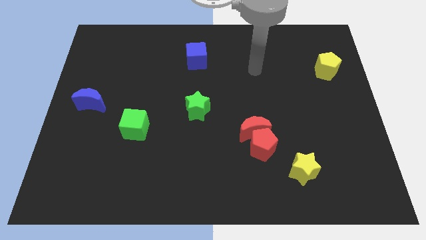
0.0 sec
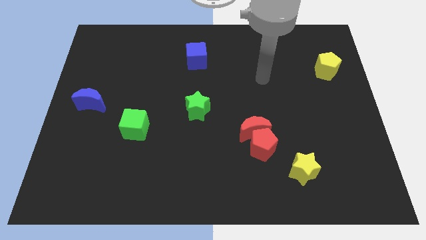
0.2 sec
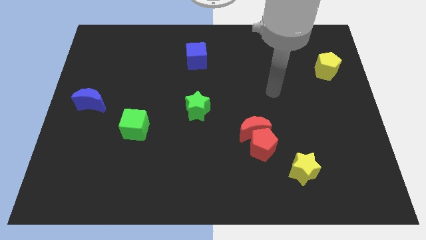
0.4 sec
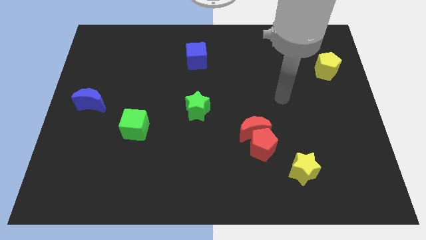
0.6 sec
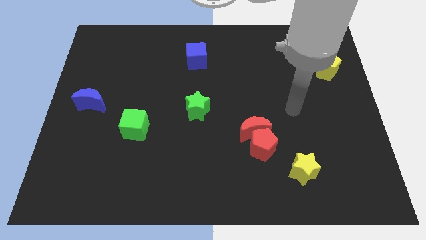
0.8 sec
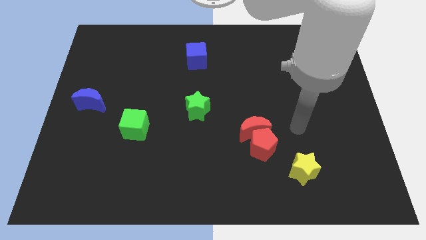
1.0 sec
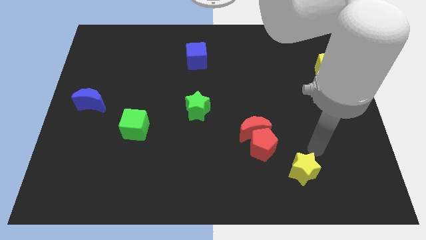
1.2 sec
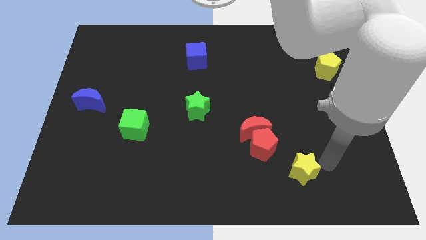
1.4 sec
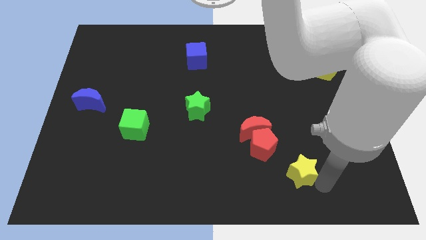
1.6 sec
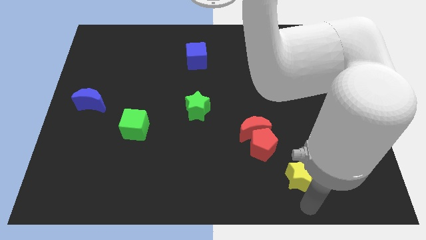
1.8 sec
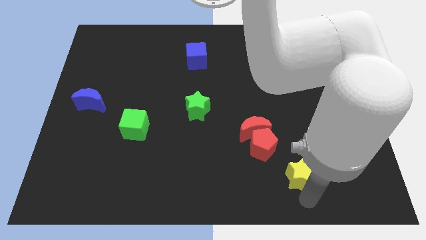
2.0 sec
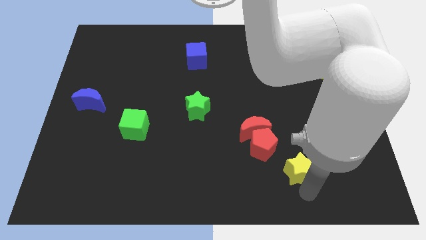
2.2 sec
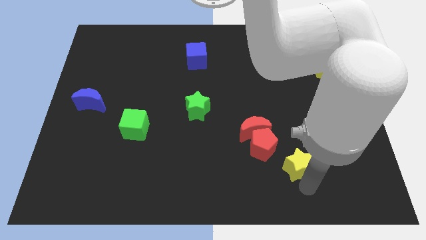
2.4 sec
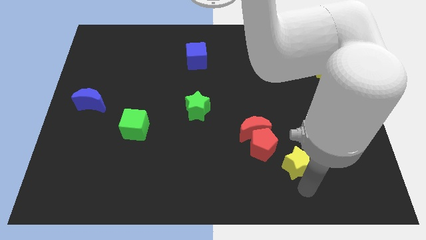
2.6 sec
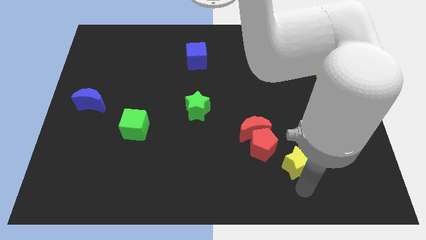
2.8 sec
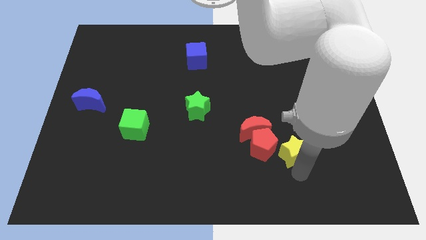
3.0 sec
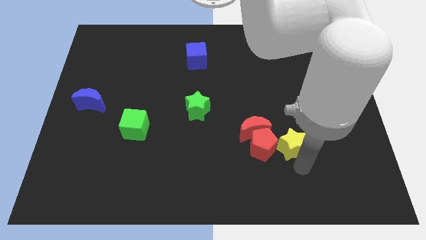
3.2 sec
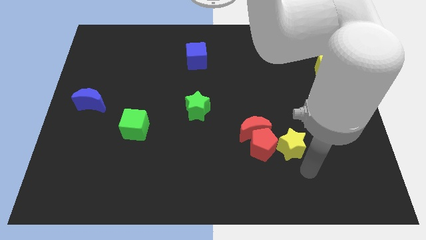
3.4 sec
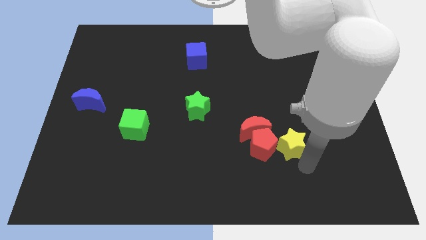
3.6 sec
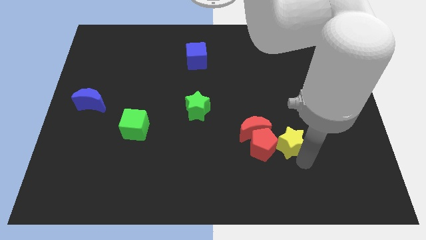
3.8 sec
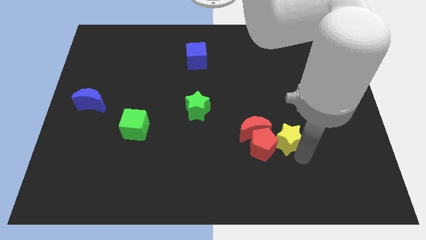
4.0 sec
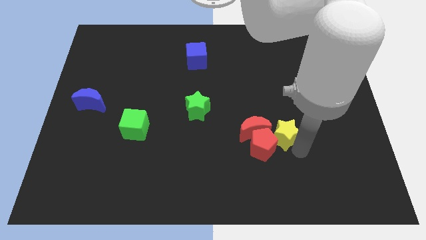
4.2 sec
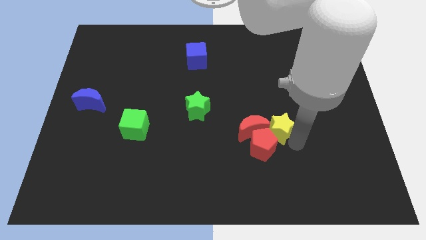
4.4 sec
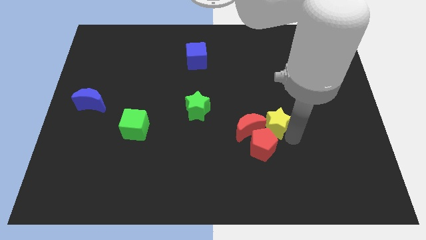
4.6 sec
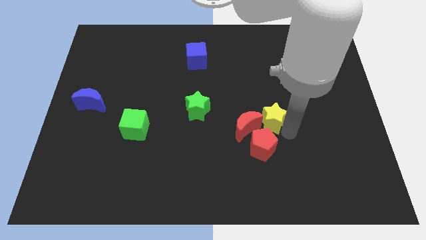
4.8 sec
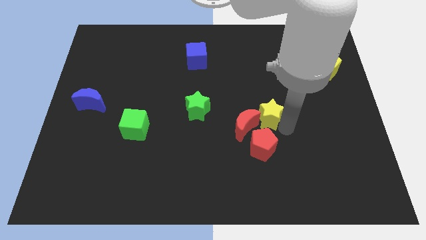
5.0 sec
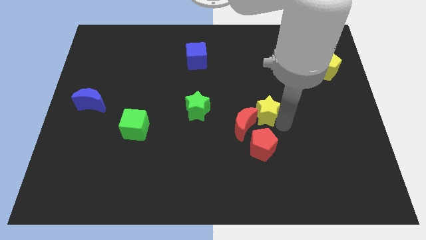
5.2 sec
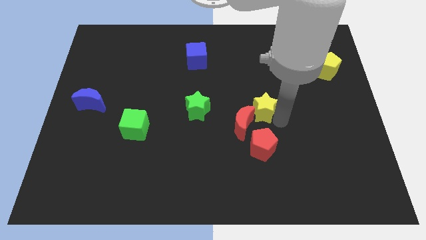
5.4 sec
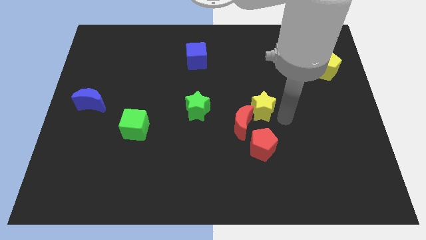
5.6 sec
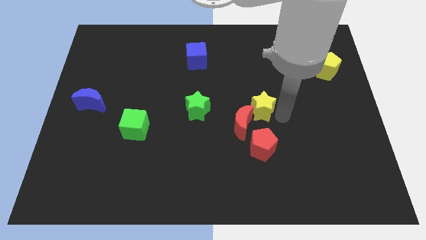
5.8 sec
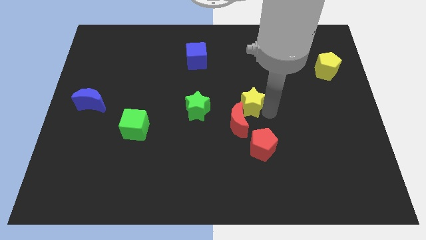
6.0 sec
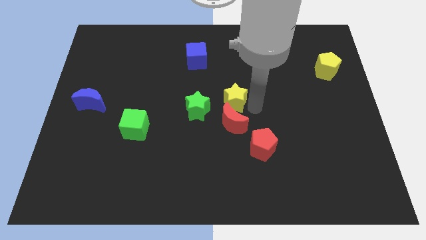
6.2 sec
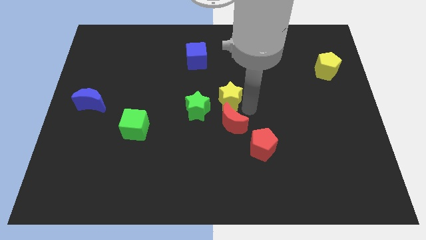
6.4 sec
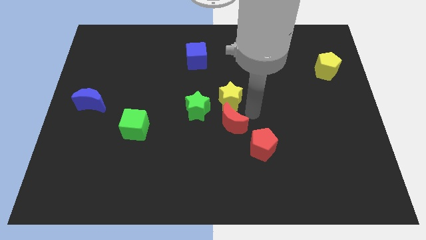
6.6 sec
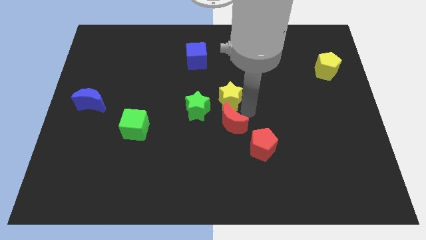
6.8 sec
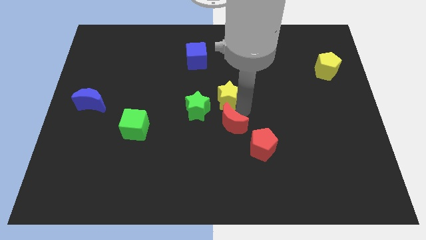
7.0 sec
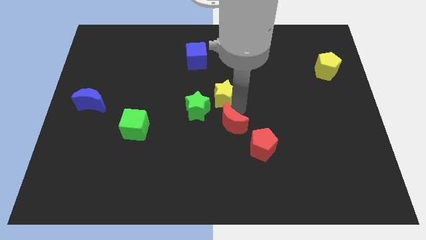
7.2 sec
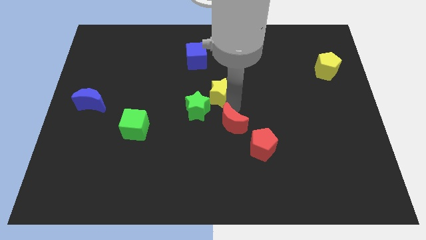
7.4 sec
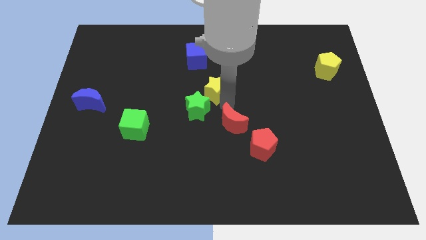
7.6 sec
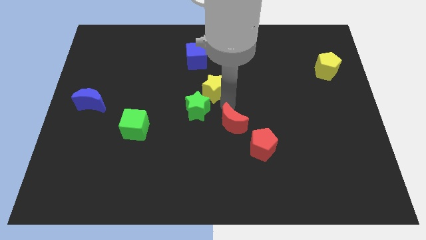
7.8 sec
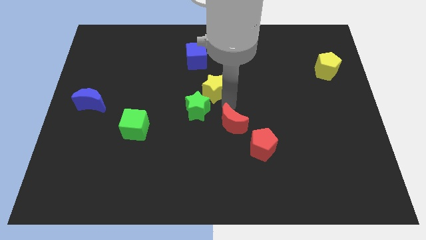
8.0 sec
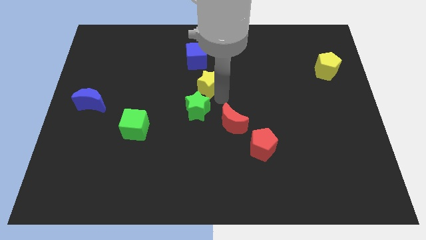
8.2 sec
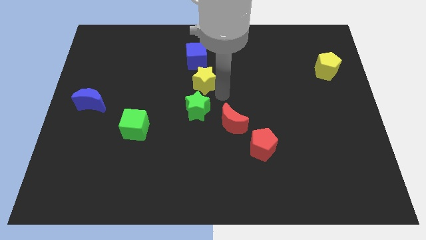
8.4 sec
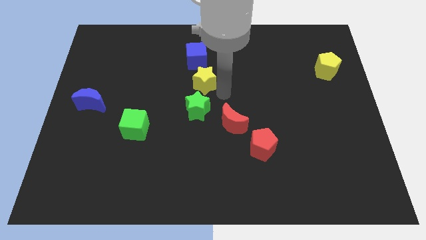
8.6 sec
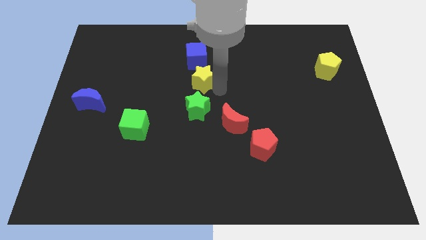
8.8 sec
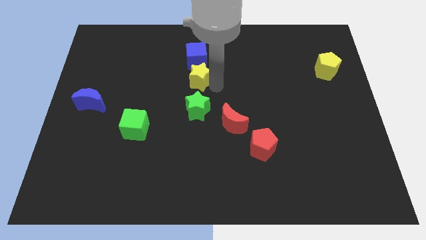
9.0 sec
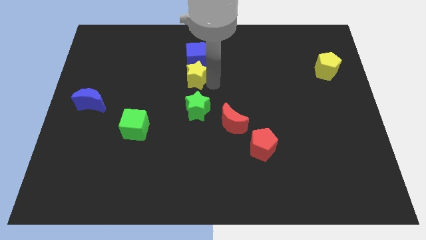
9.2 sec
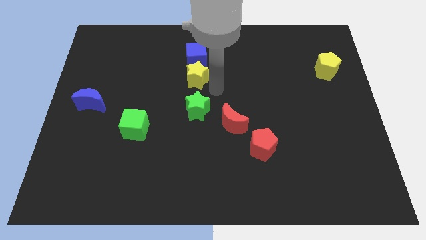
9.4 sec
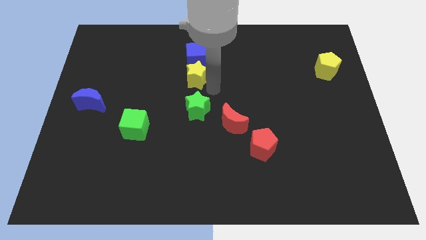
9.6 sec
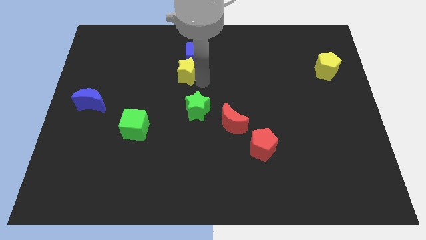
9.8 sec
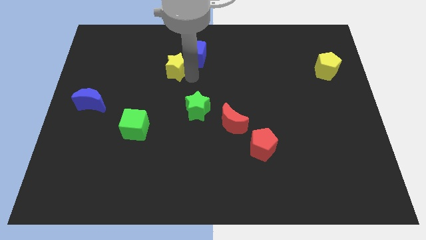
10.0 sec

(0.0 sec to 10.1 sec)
slide the yellow star left of the blue cube

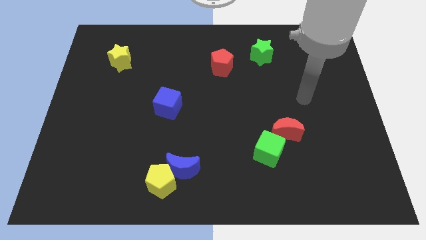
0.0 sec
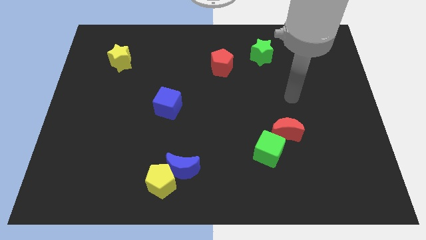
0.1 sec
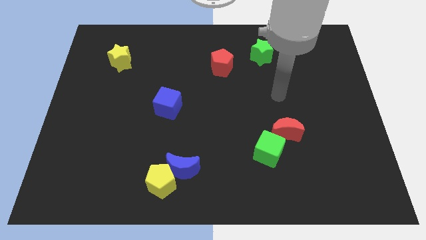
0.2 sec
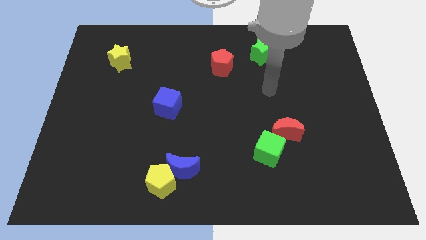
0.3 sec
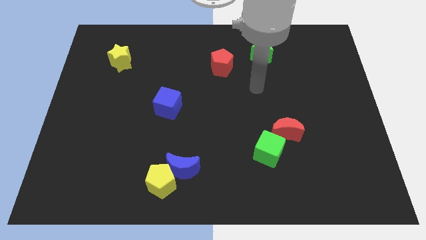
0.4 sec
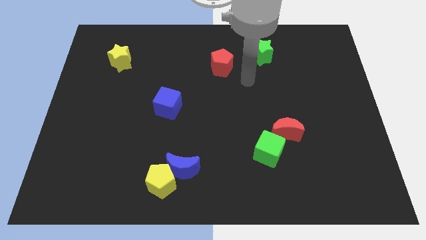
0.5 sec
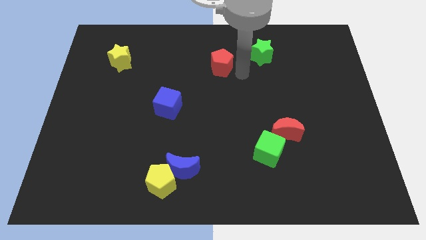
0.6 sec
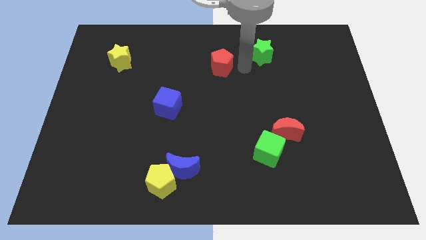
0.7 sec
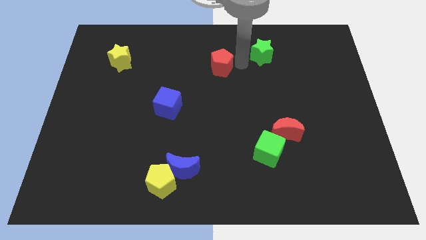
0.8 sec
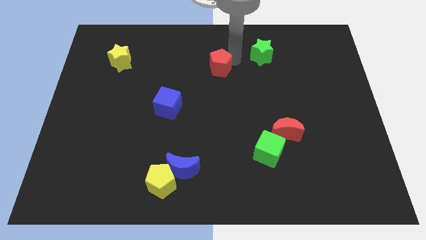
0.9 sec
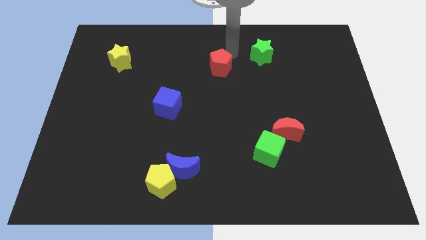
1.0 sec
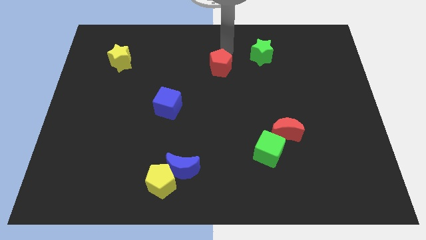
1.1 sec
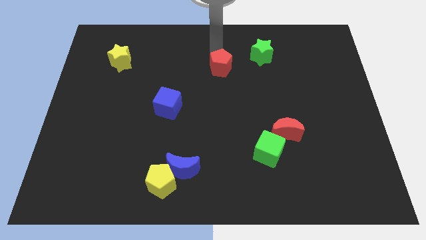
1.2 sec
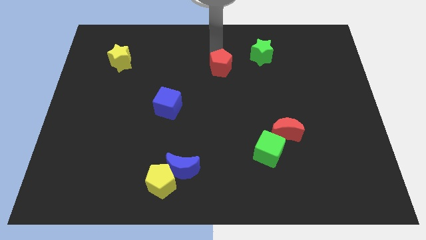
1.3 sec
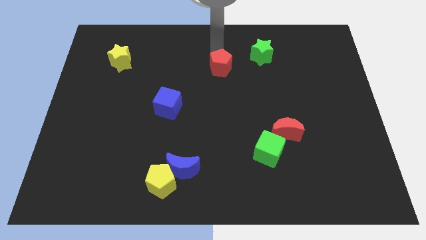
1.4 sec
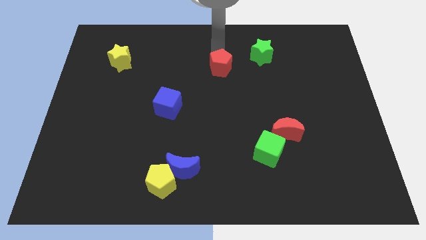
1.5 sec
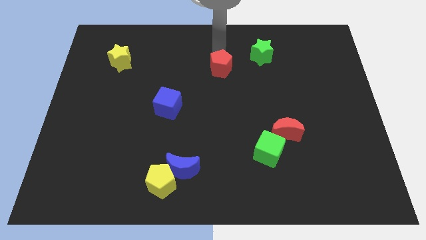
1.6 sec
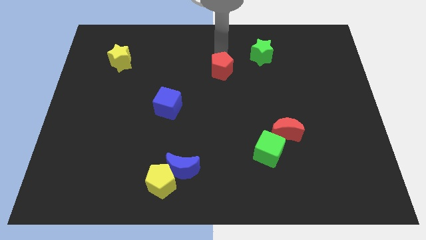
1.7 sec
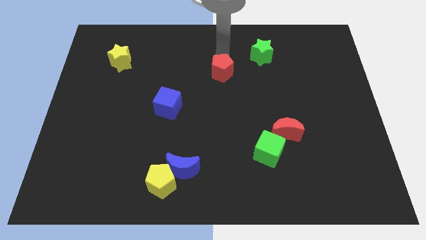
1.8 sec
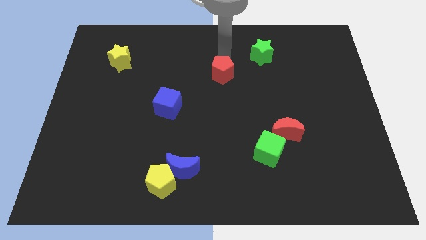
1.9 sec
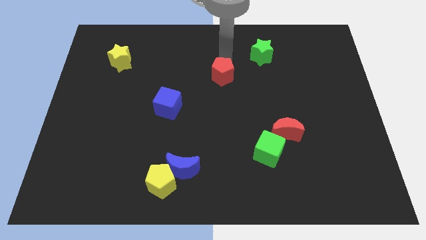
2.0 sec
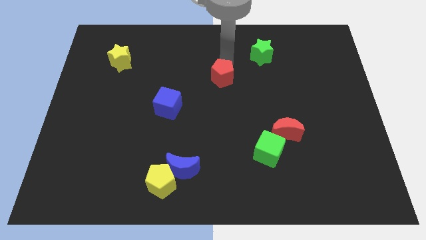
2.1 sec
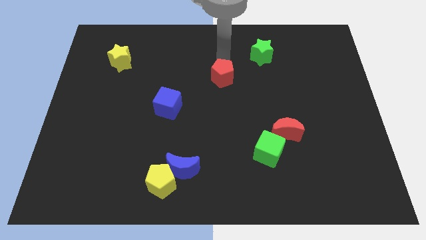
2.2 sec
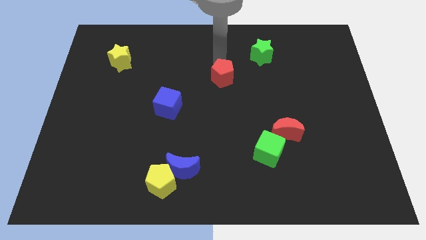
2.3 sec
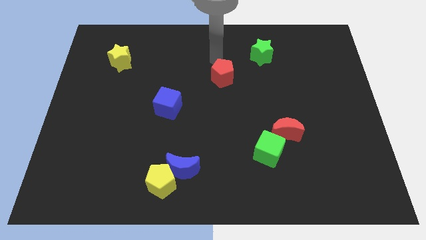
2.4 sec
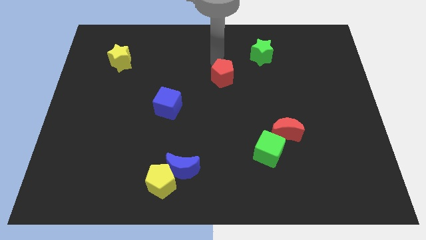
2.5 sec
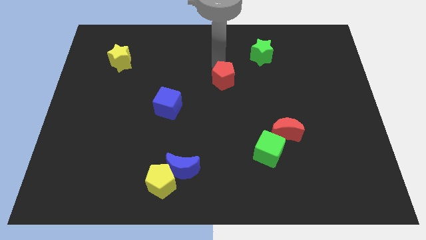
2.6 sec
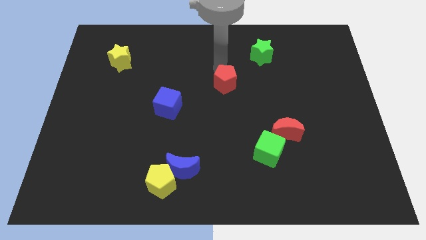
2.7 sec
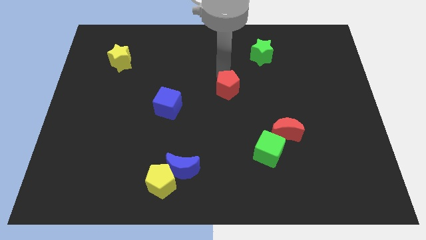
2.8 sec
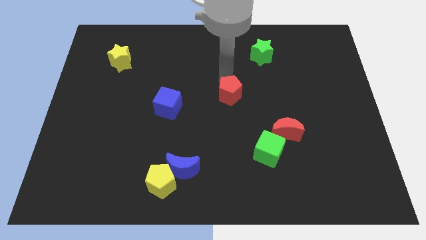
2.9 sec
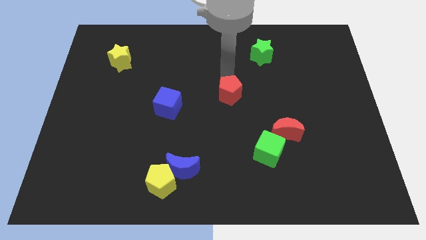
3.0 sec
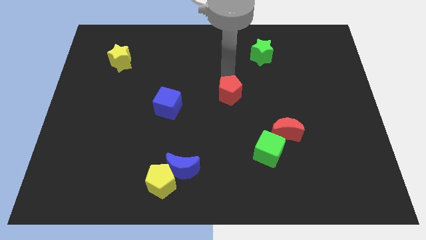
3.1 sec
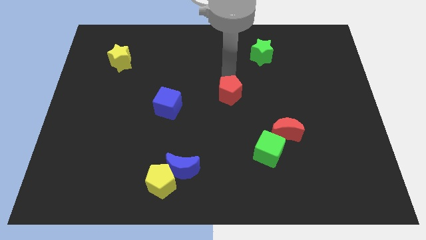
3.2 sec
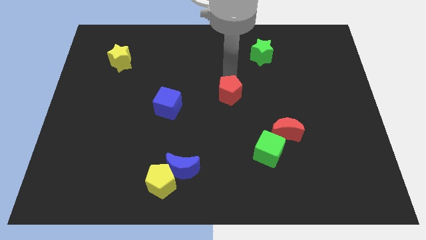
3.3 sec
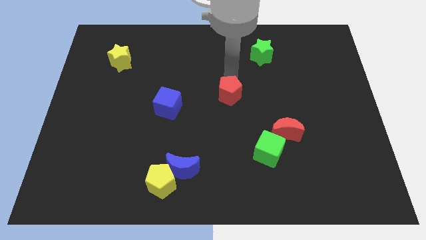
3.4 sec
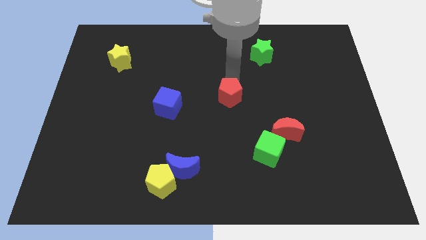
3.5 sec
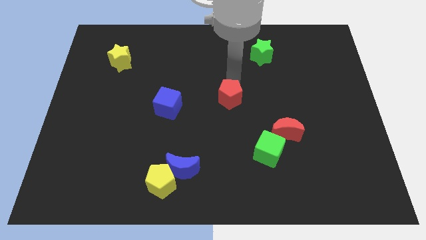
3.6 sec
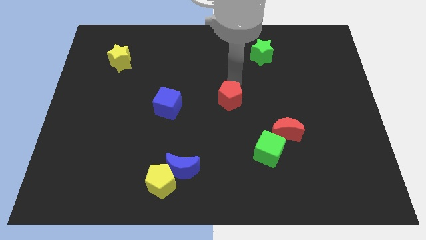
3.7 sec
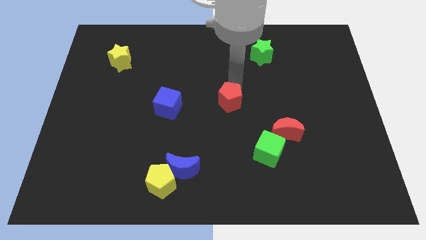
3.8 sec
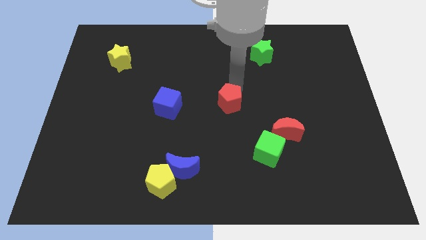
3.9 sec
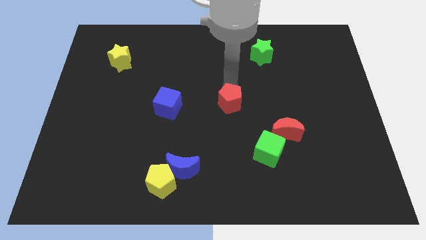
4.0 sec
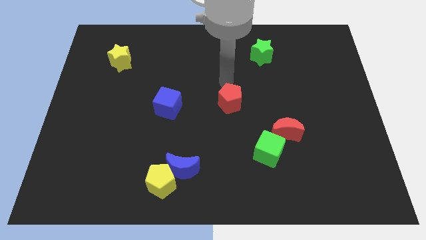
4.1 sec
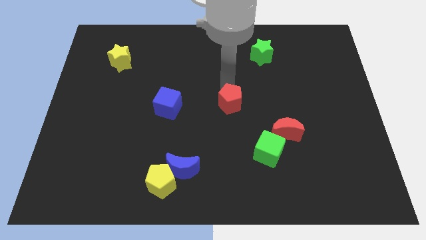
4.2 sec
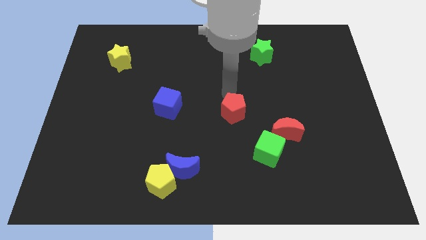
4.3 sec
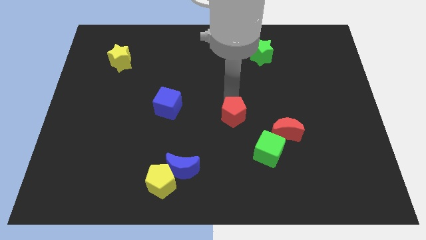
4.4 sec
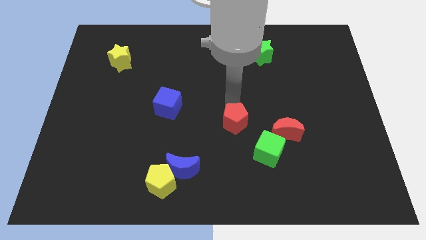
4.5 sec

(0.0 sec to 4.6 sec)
push the red pentagon left of the red moon
